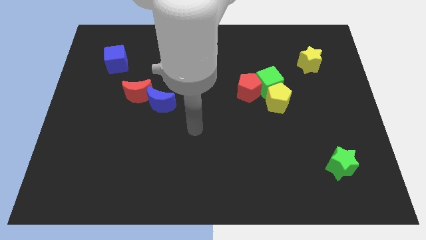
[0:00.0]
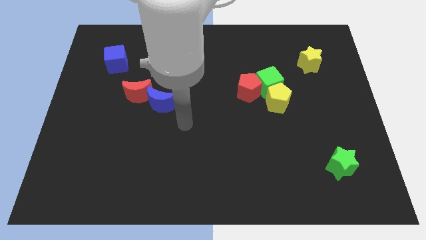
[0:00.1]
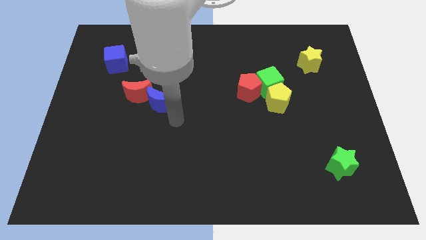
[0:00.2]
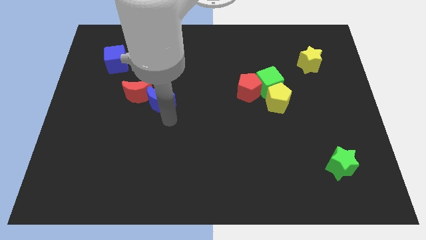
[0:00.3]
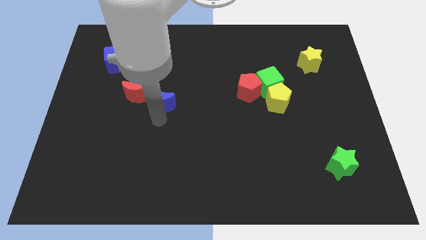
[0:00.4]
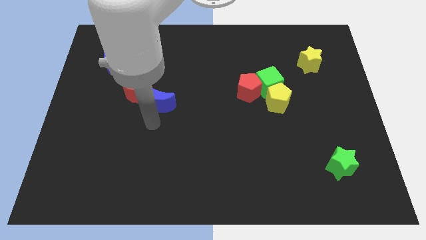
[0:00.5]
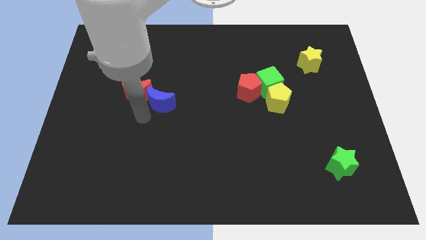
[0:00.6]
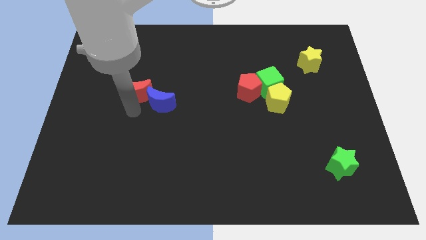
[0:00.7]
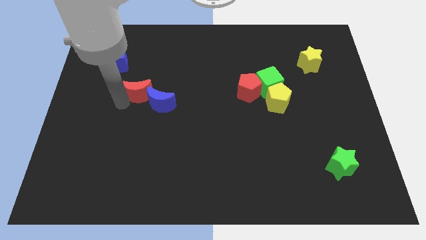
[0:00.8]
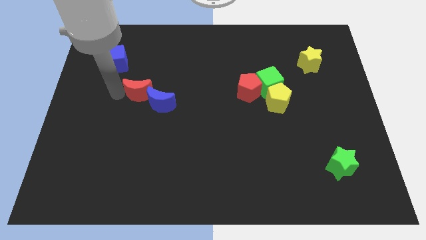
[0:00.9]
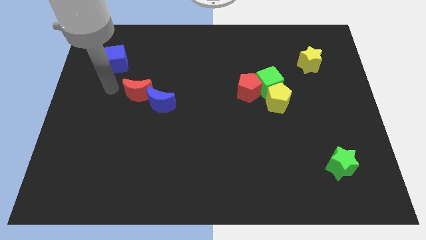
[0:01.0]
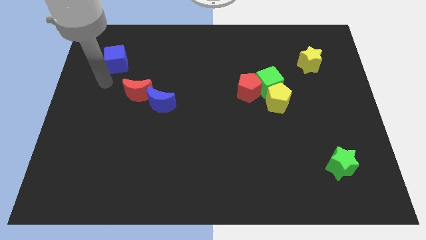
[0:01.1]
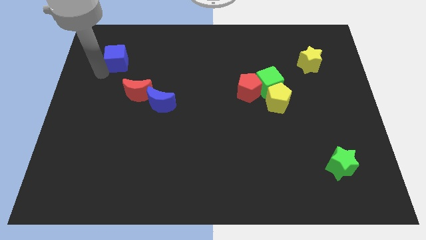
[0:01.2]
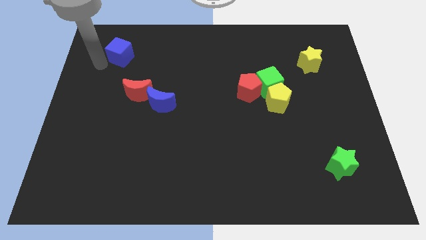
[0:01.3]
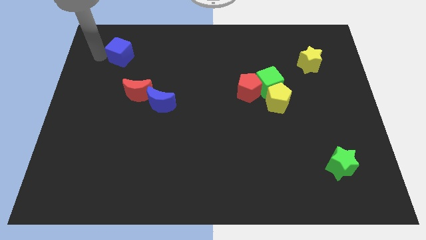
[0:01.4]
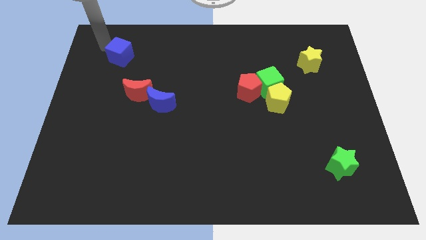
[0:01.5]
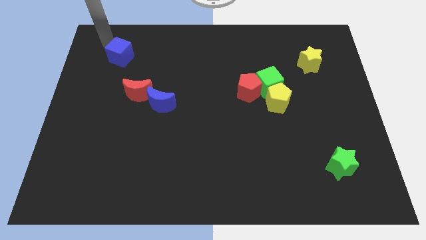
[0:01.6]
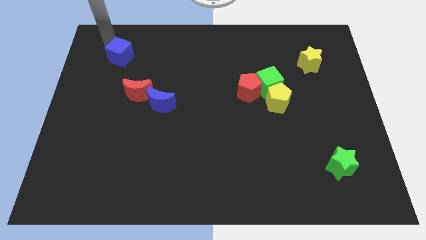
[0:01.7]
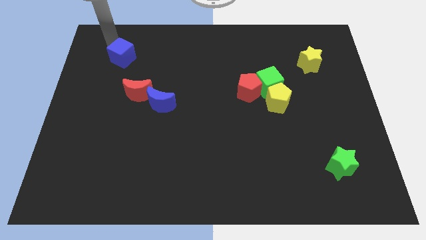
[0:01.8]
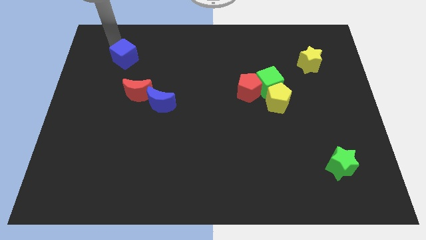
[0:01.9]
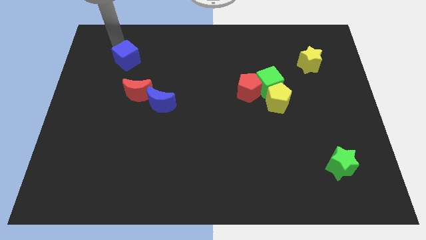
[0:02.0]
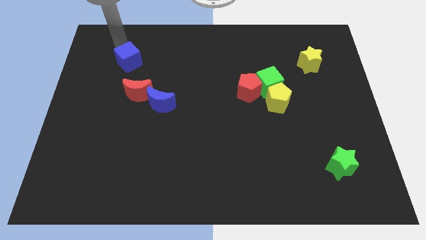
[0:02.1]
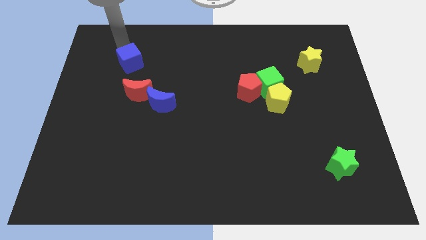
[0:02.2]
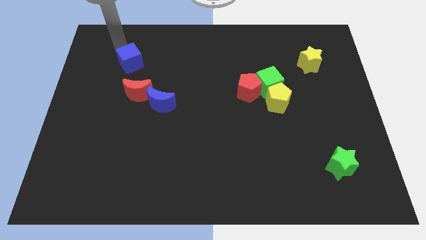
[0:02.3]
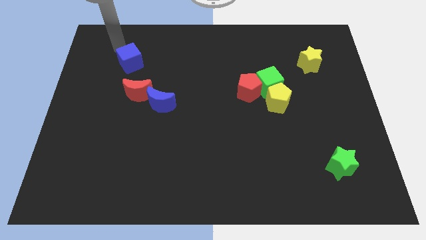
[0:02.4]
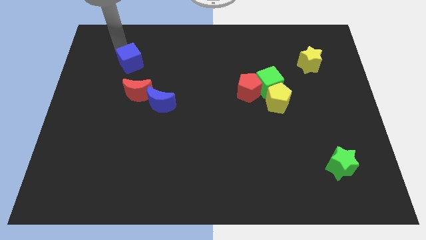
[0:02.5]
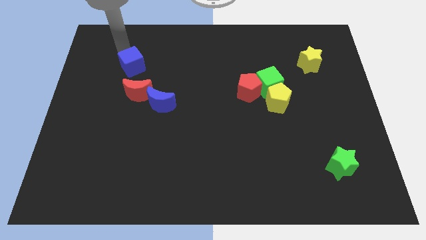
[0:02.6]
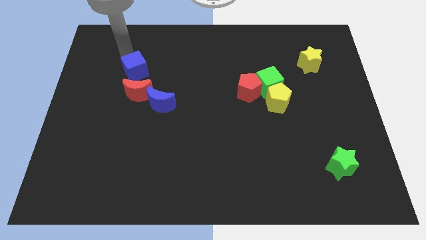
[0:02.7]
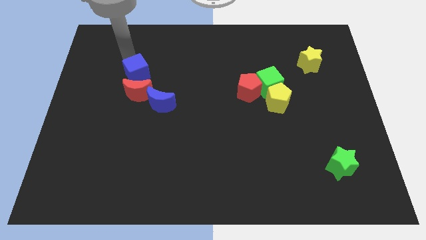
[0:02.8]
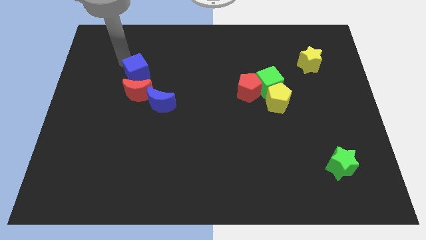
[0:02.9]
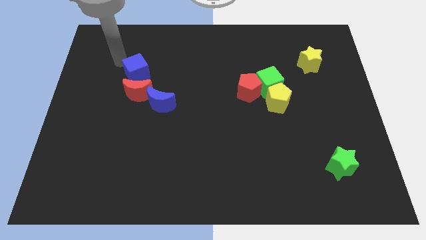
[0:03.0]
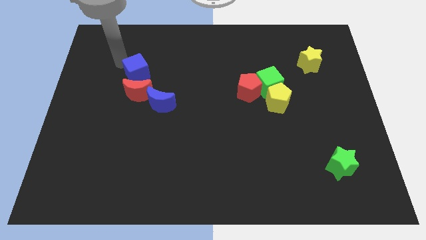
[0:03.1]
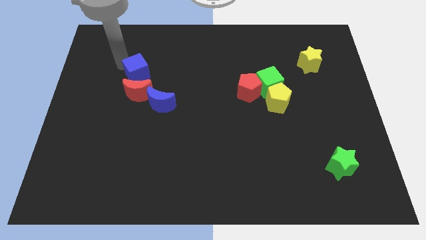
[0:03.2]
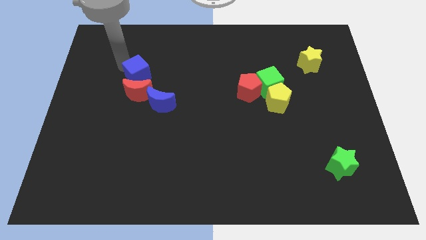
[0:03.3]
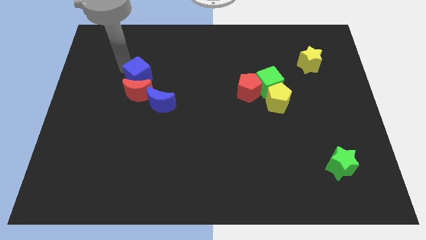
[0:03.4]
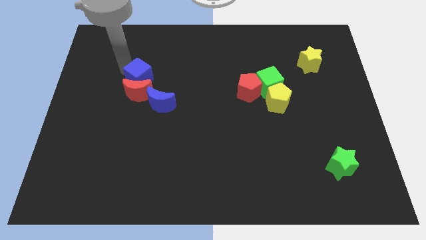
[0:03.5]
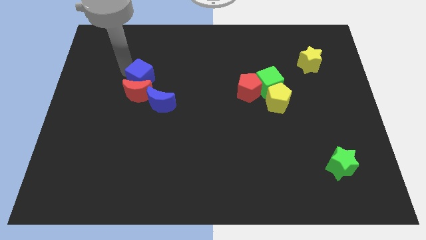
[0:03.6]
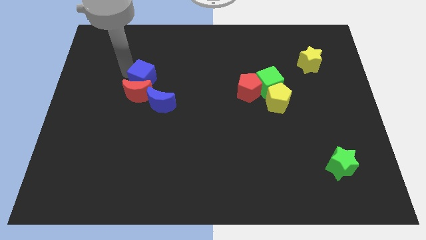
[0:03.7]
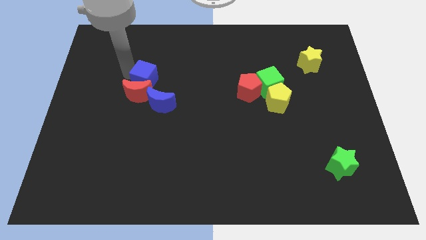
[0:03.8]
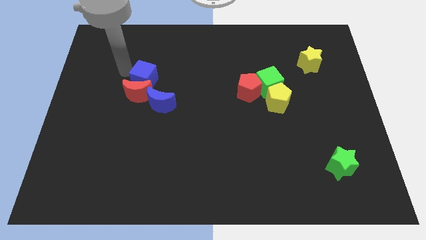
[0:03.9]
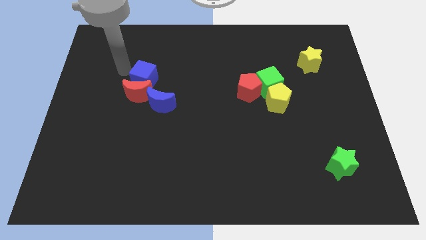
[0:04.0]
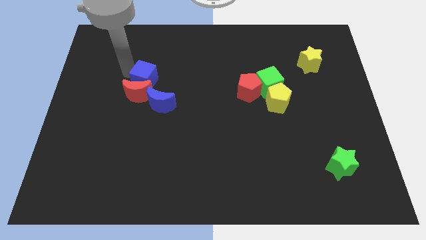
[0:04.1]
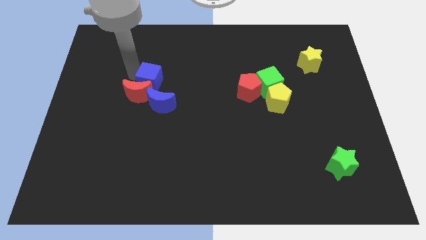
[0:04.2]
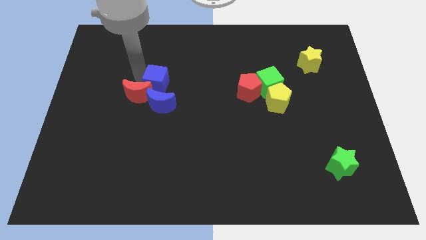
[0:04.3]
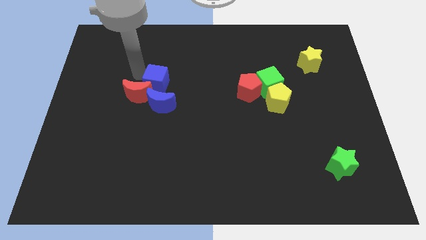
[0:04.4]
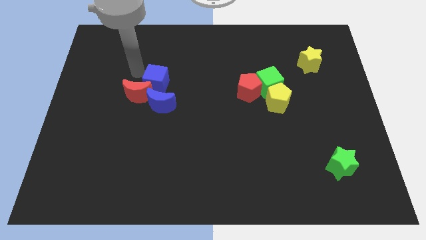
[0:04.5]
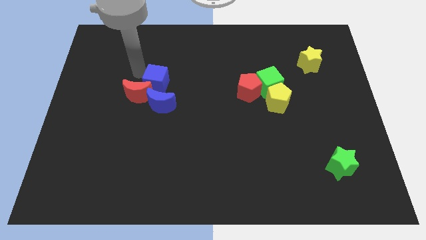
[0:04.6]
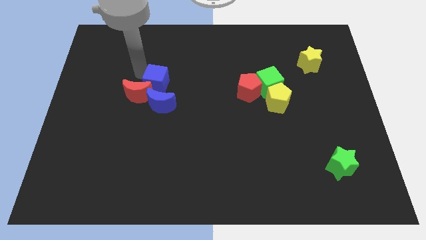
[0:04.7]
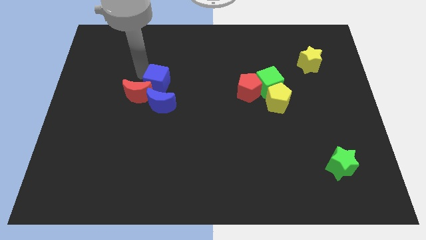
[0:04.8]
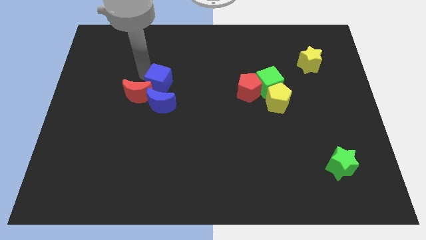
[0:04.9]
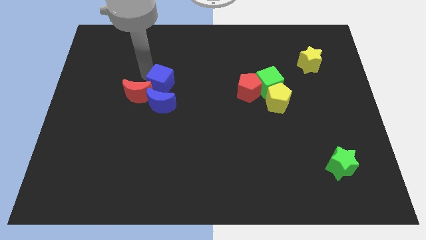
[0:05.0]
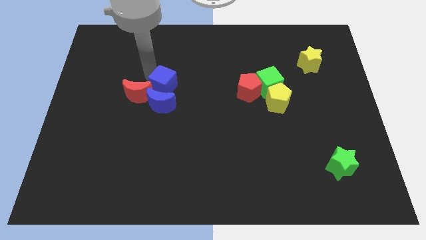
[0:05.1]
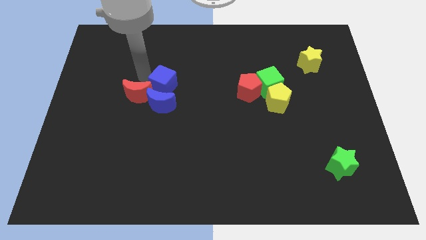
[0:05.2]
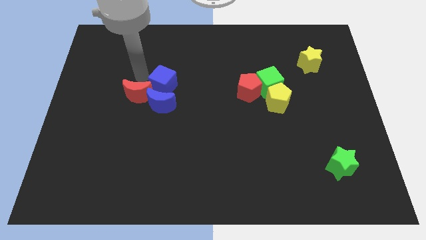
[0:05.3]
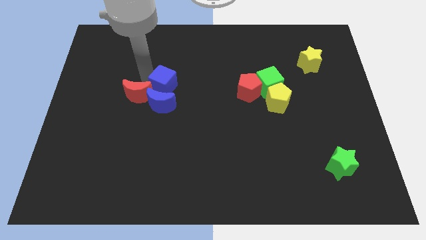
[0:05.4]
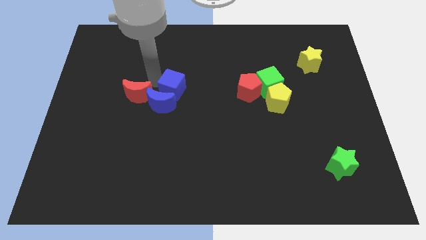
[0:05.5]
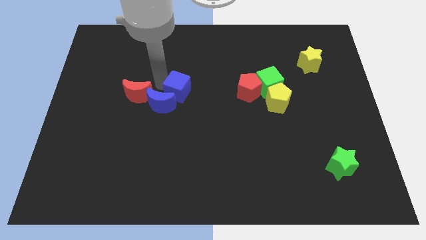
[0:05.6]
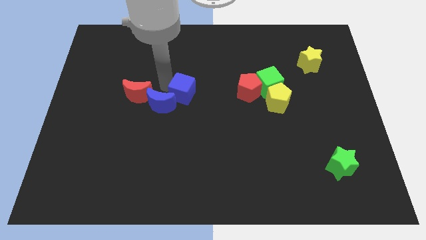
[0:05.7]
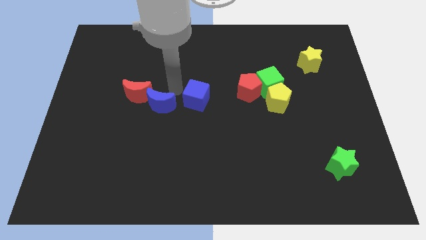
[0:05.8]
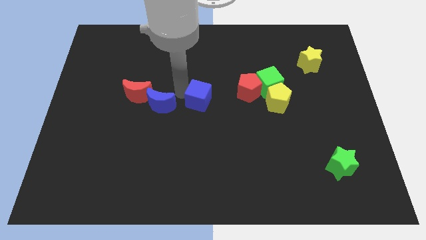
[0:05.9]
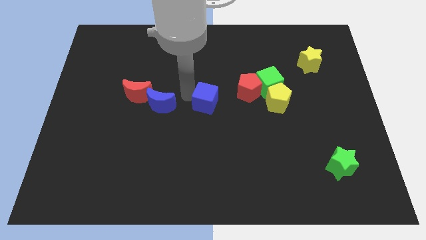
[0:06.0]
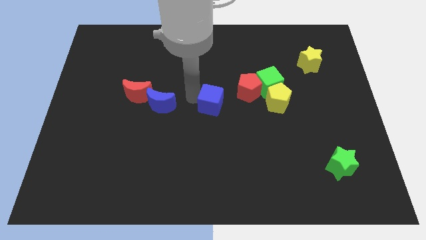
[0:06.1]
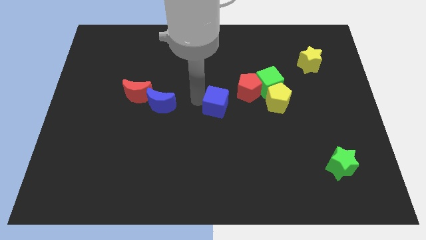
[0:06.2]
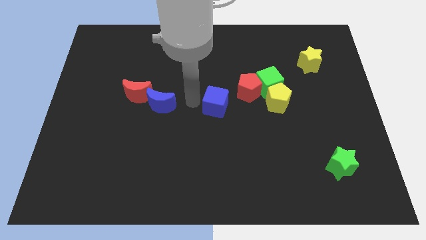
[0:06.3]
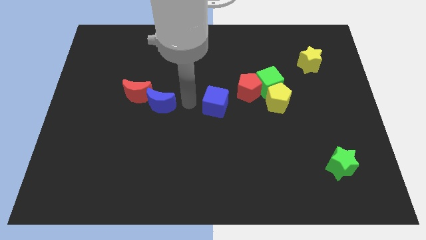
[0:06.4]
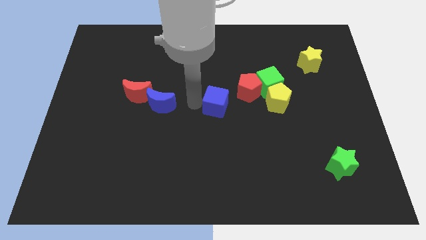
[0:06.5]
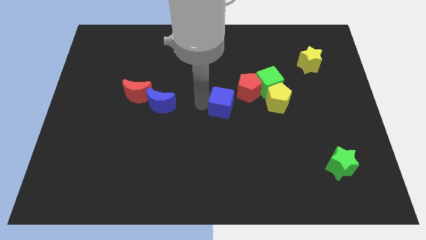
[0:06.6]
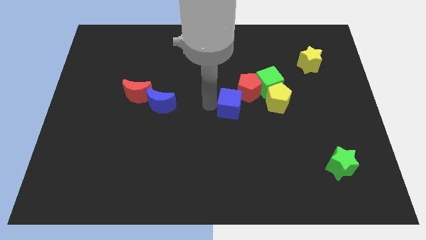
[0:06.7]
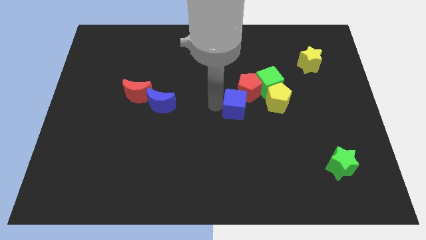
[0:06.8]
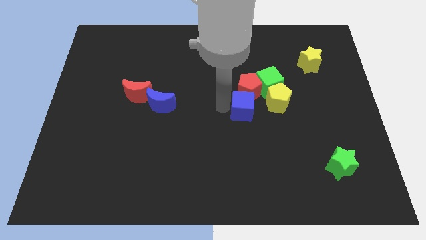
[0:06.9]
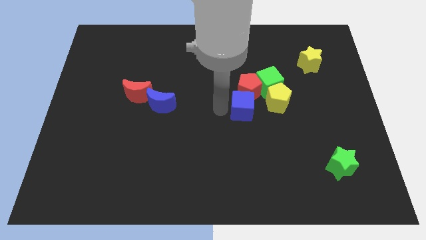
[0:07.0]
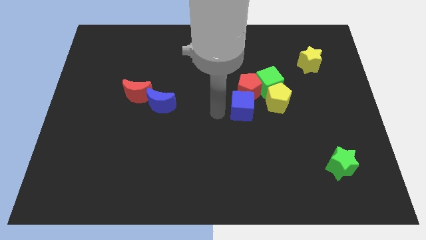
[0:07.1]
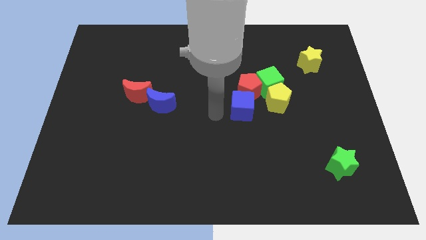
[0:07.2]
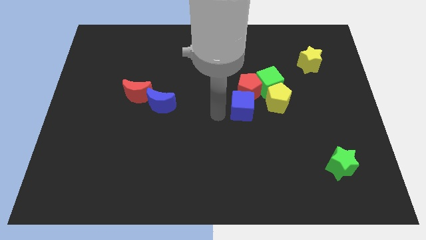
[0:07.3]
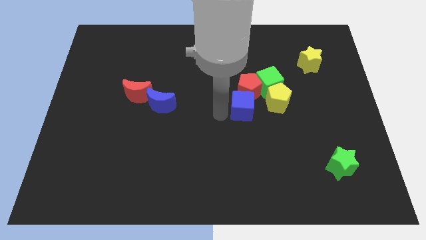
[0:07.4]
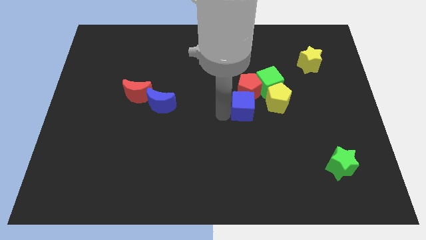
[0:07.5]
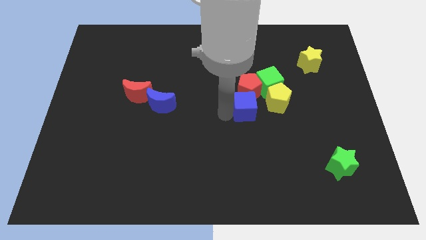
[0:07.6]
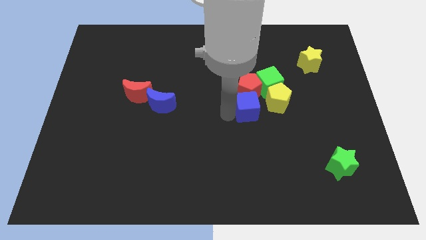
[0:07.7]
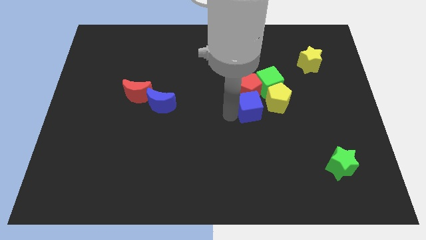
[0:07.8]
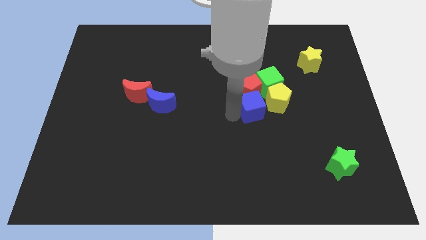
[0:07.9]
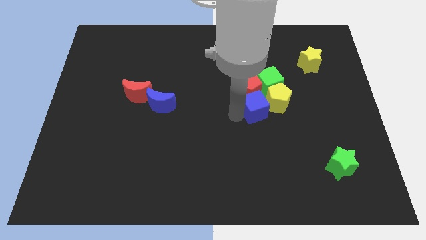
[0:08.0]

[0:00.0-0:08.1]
slide the blue cube next to the yellow pentagon
